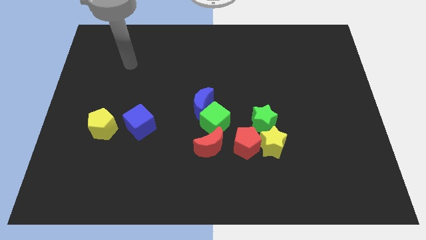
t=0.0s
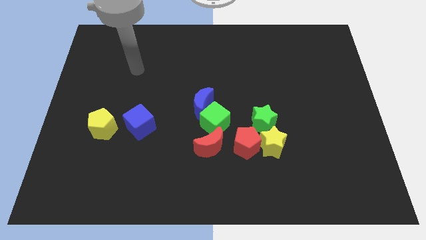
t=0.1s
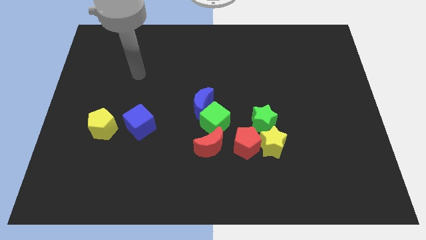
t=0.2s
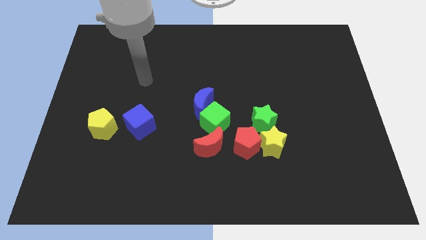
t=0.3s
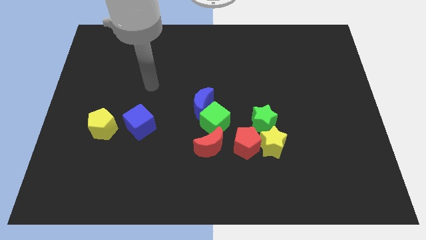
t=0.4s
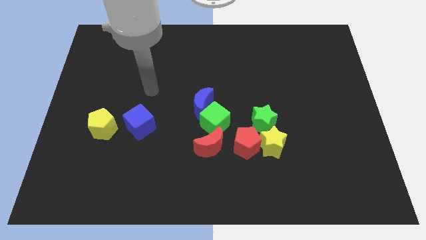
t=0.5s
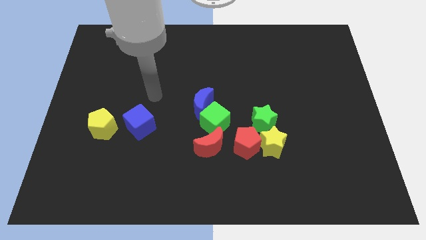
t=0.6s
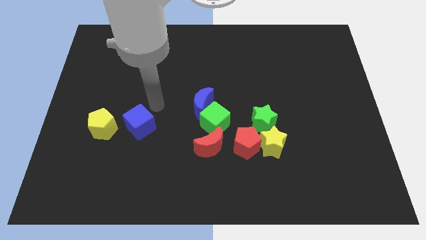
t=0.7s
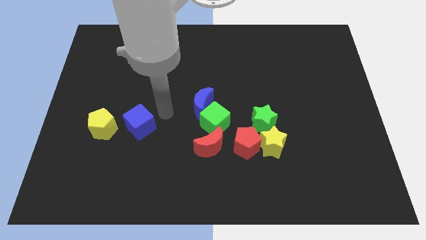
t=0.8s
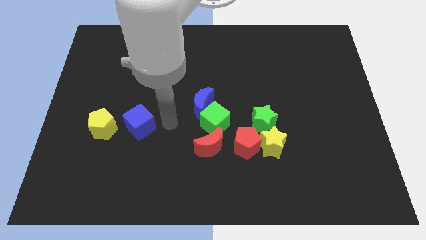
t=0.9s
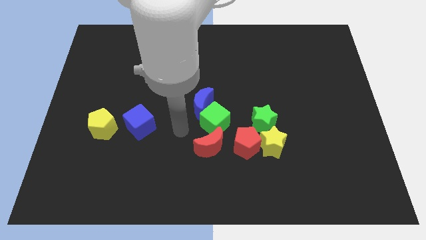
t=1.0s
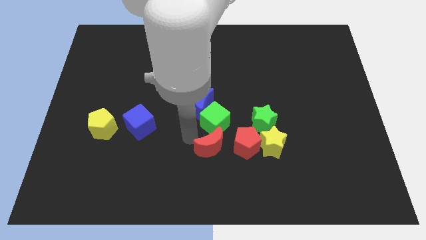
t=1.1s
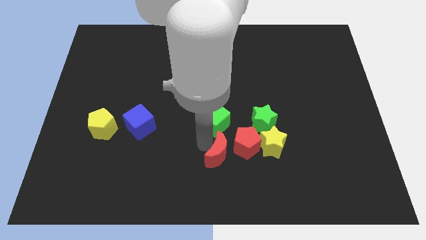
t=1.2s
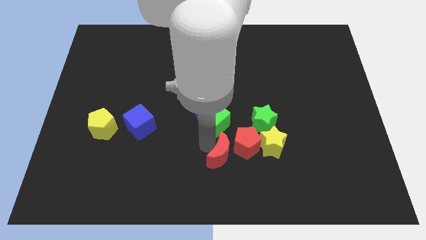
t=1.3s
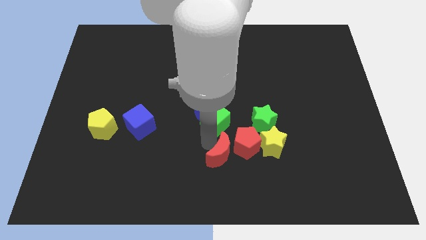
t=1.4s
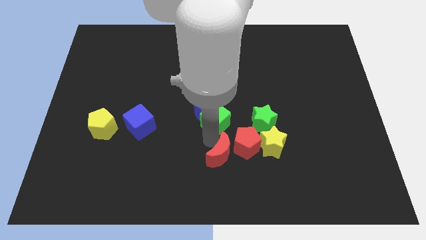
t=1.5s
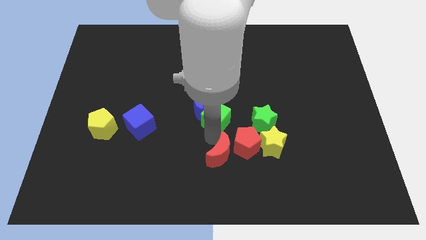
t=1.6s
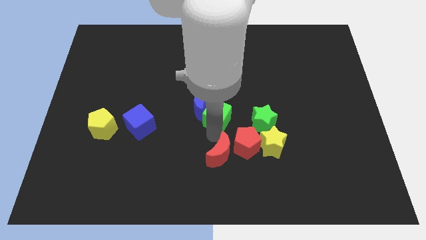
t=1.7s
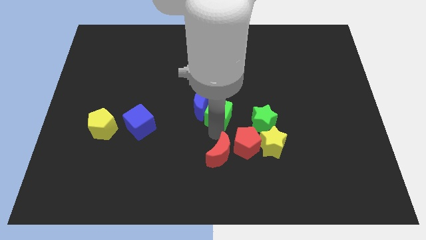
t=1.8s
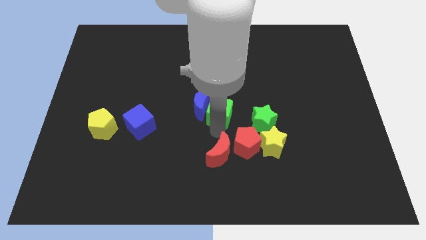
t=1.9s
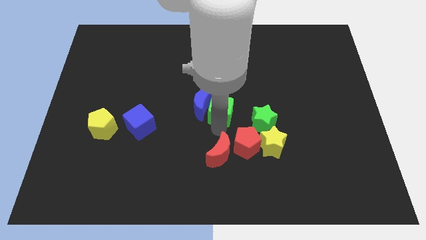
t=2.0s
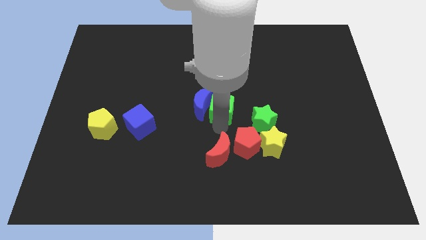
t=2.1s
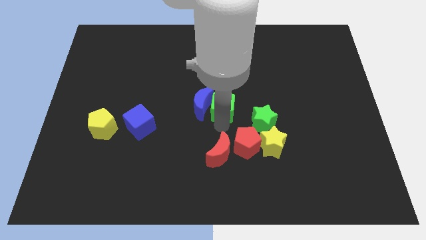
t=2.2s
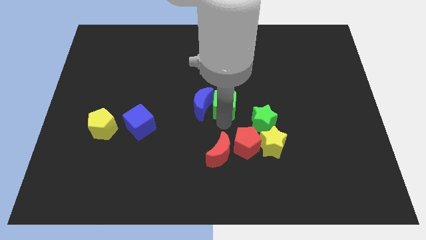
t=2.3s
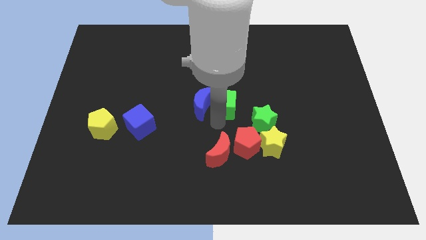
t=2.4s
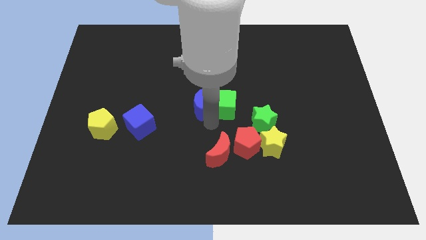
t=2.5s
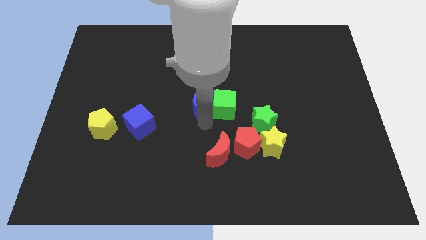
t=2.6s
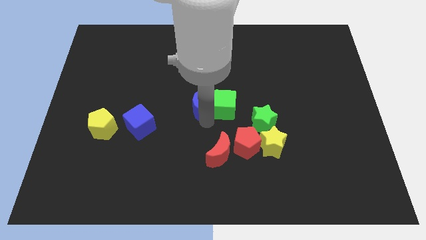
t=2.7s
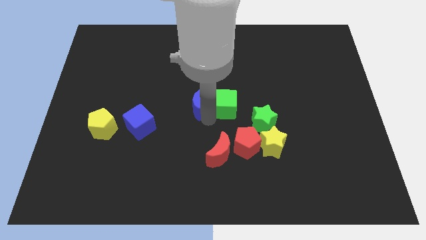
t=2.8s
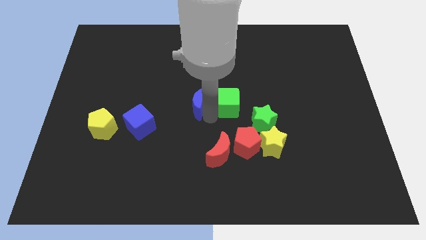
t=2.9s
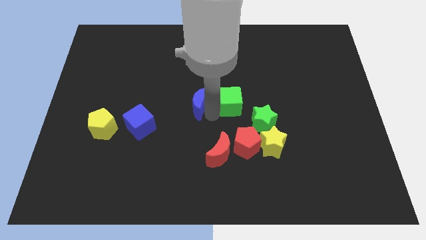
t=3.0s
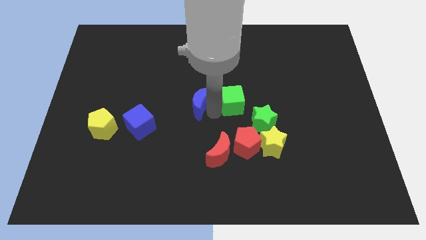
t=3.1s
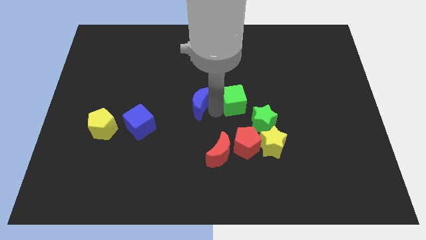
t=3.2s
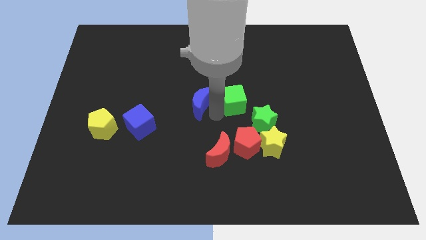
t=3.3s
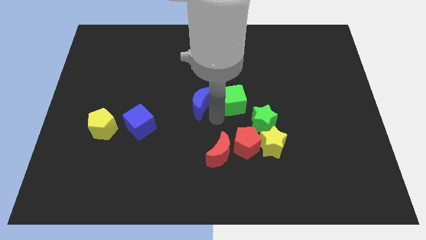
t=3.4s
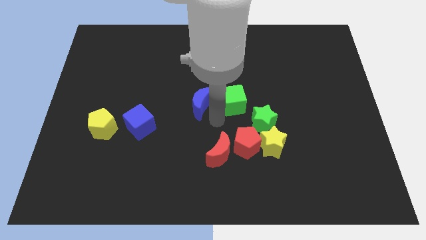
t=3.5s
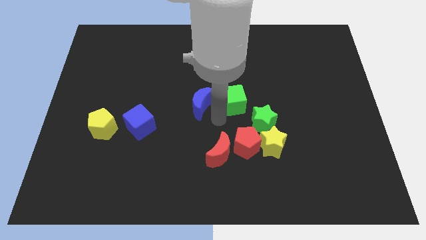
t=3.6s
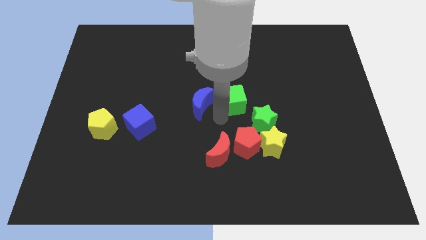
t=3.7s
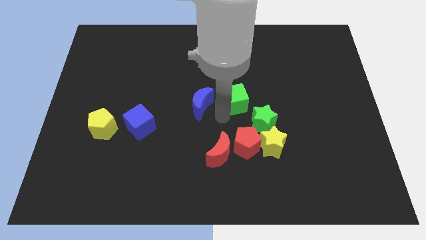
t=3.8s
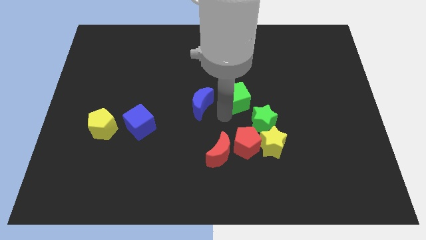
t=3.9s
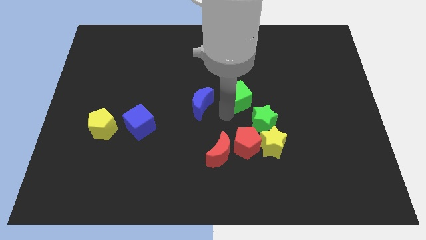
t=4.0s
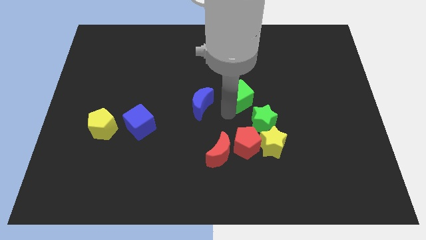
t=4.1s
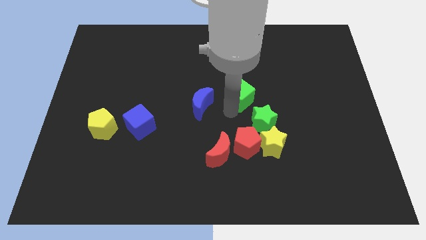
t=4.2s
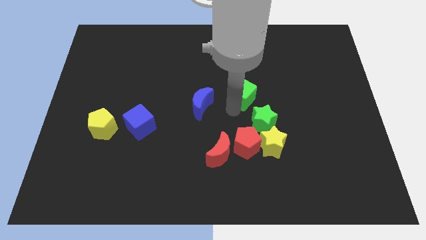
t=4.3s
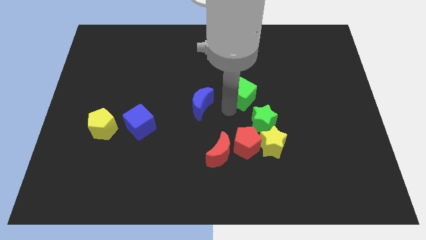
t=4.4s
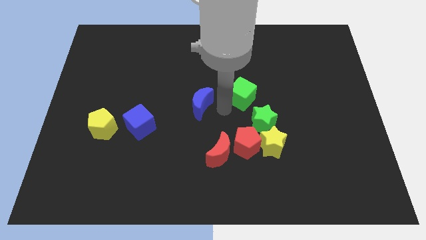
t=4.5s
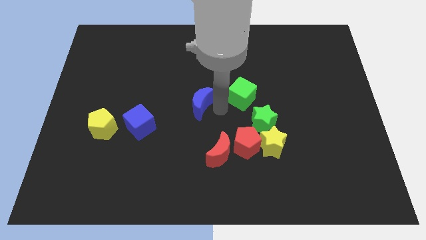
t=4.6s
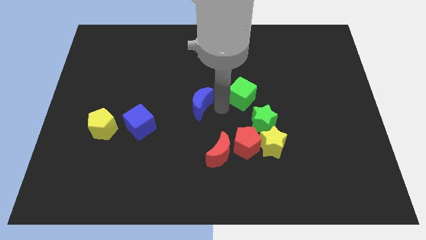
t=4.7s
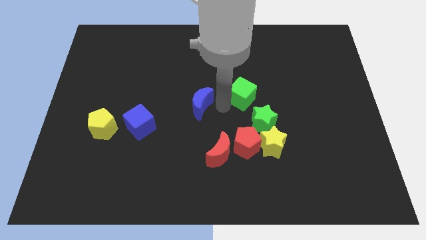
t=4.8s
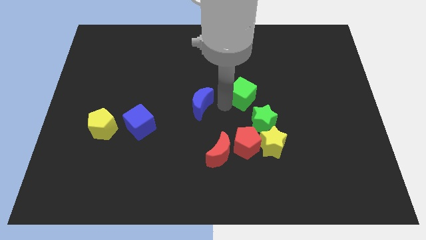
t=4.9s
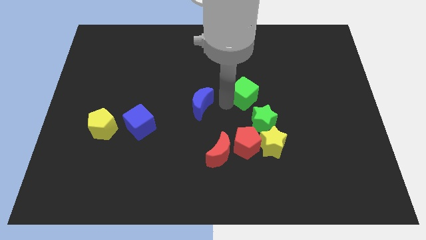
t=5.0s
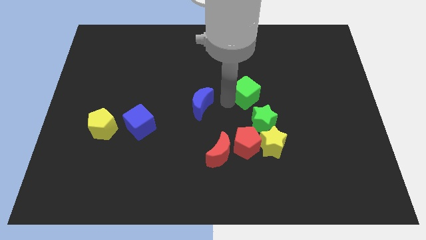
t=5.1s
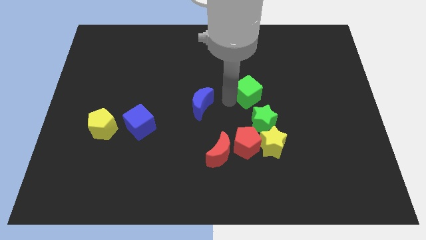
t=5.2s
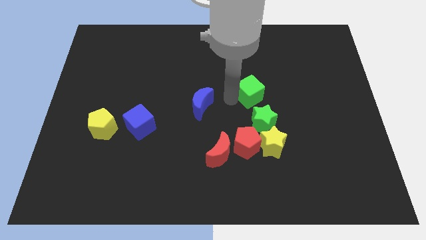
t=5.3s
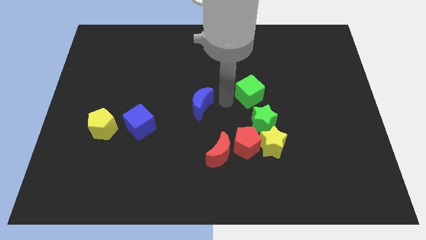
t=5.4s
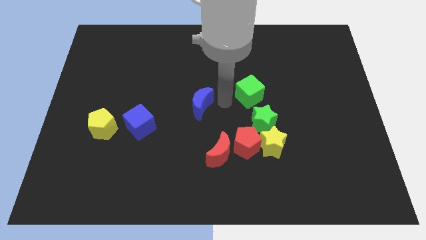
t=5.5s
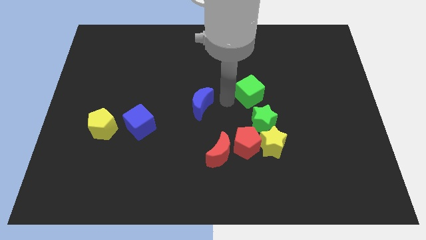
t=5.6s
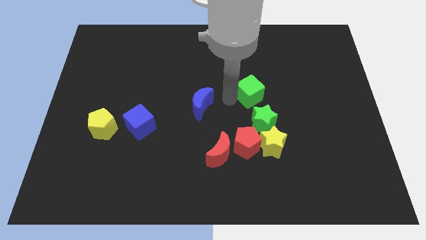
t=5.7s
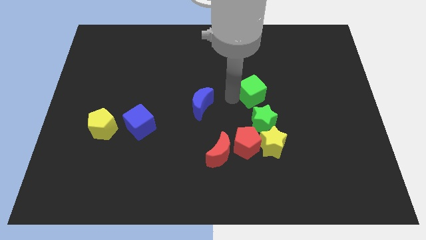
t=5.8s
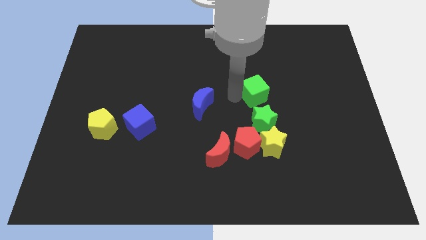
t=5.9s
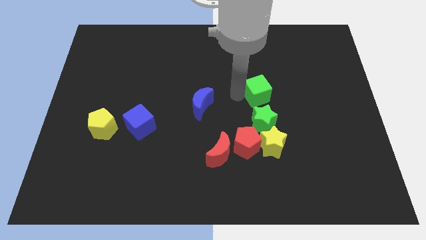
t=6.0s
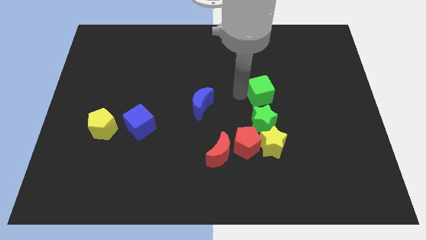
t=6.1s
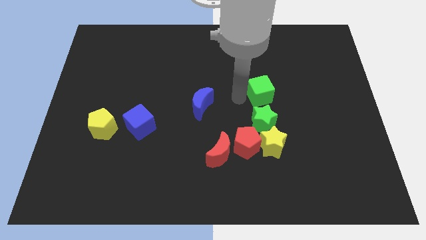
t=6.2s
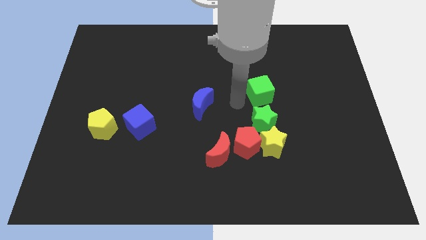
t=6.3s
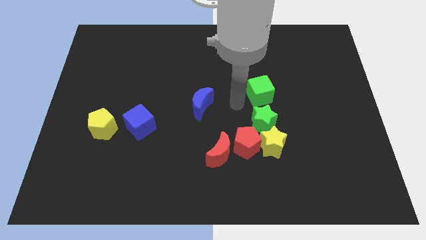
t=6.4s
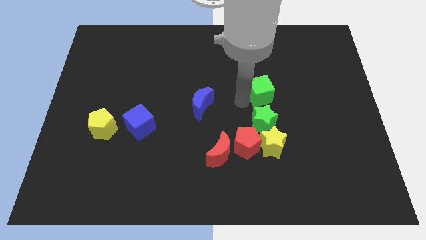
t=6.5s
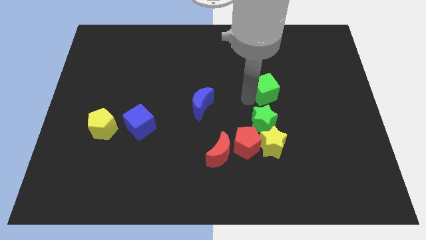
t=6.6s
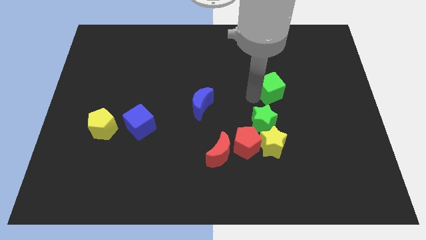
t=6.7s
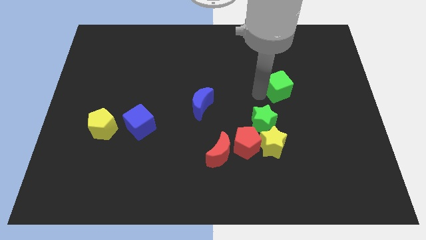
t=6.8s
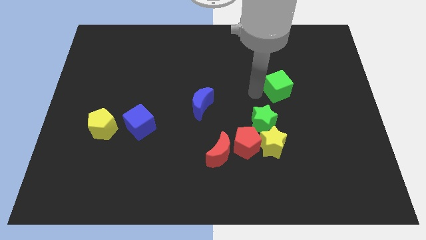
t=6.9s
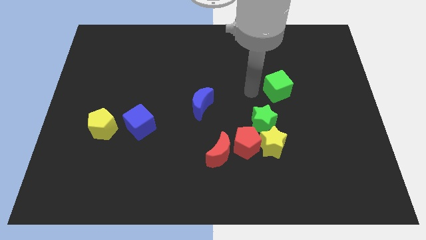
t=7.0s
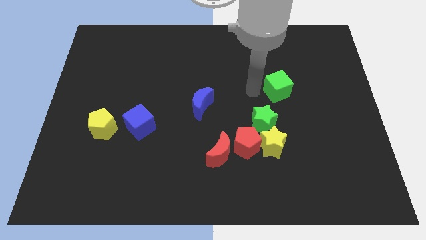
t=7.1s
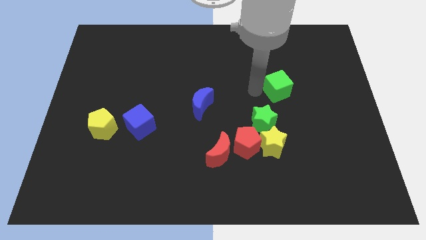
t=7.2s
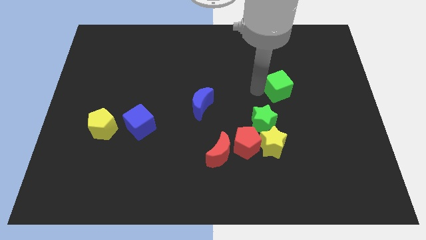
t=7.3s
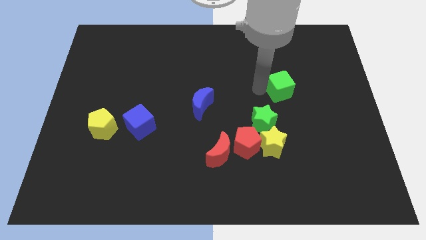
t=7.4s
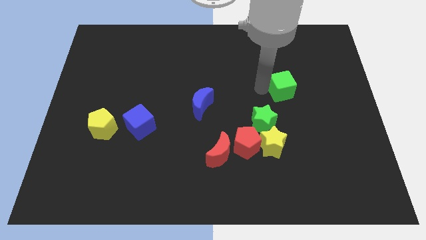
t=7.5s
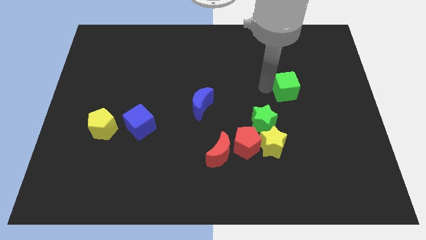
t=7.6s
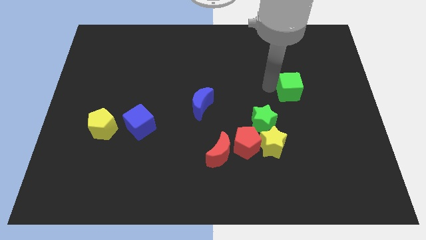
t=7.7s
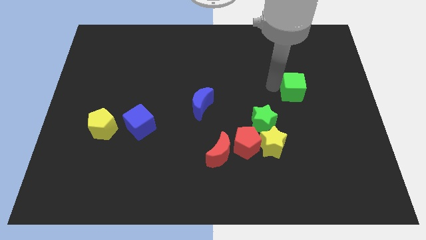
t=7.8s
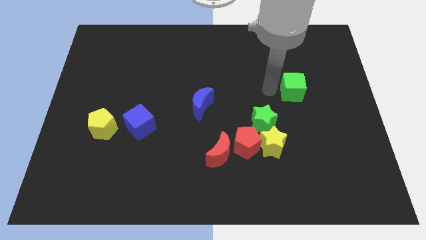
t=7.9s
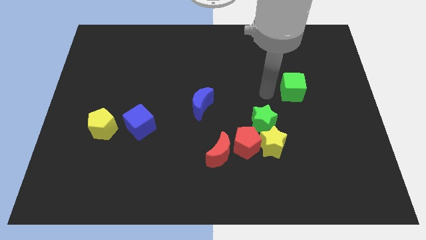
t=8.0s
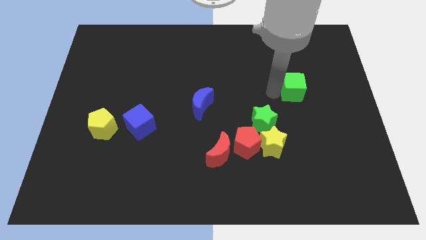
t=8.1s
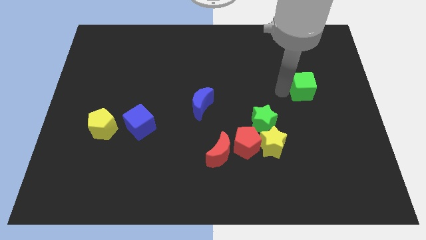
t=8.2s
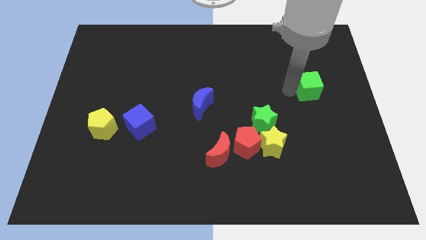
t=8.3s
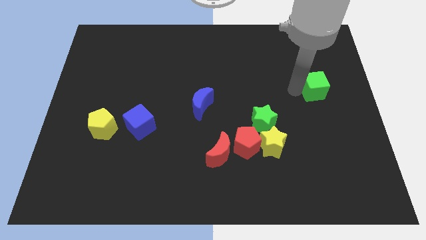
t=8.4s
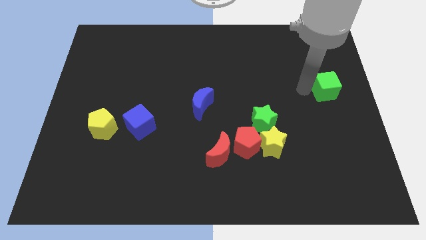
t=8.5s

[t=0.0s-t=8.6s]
push the green cube to the right side of the board
